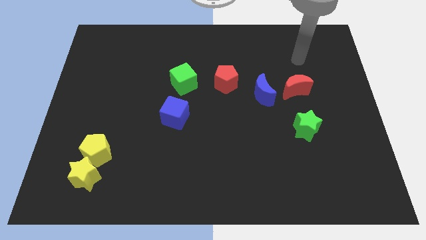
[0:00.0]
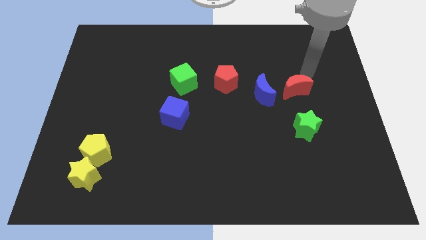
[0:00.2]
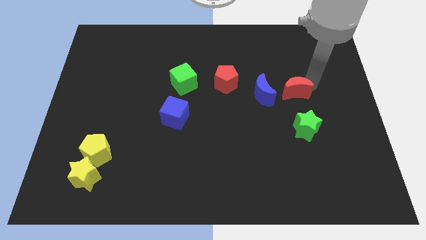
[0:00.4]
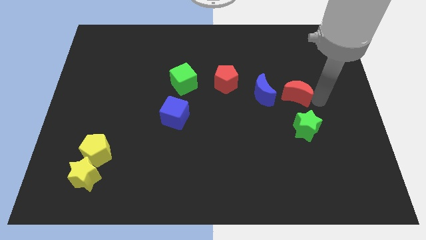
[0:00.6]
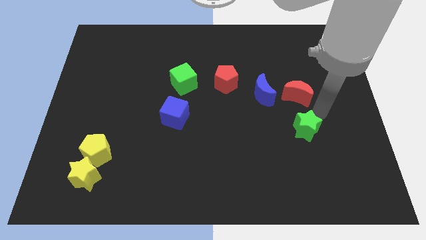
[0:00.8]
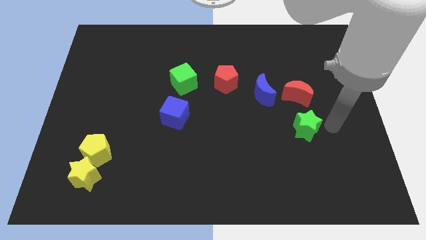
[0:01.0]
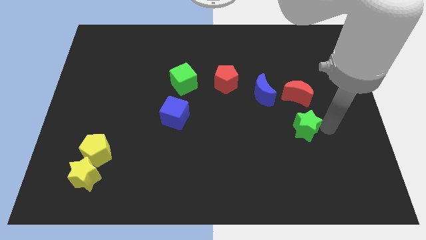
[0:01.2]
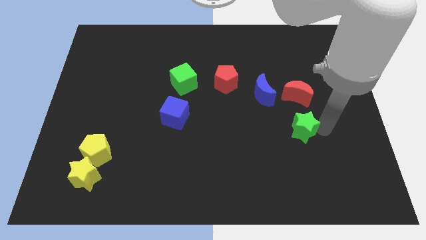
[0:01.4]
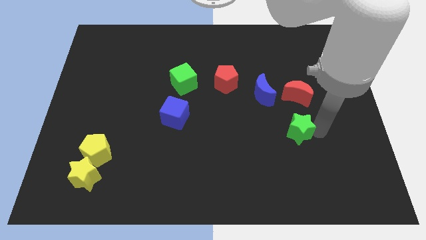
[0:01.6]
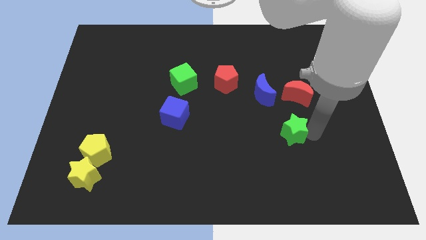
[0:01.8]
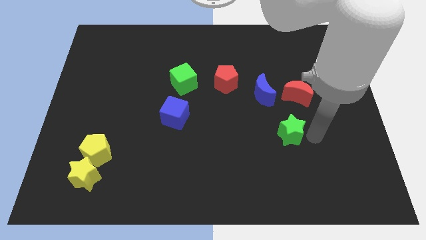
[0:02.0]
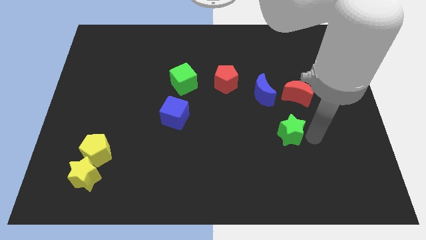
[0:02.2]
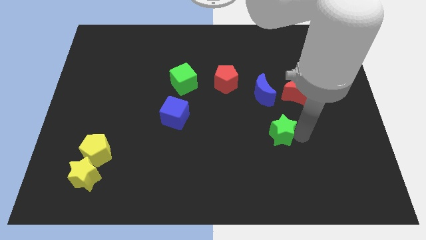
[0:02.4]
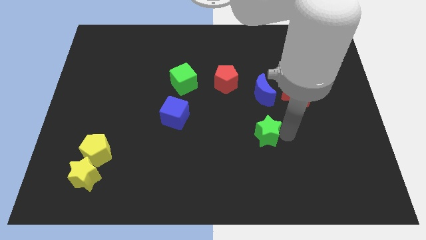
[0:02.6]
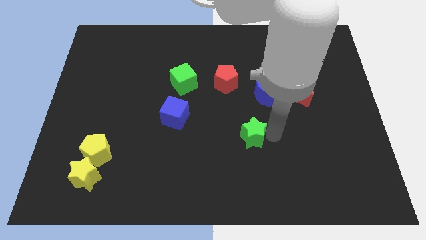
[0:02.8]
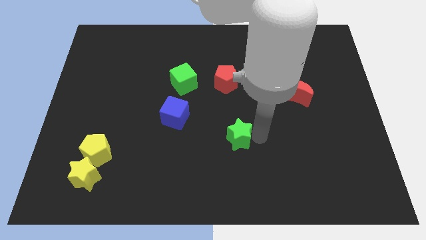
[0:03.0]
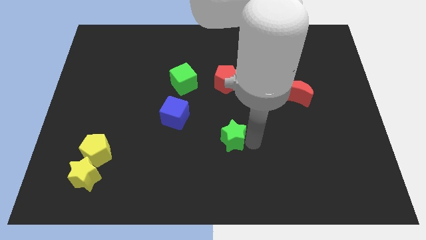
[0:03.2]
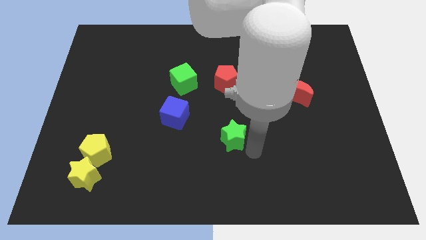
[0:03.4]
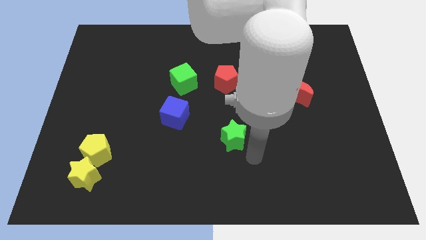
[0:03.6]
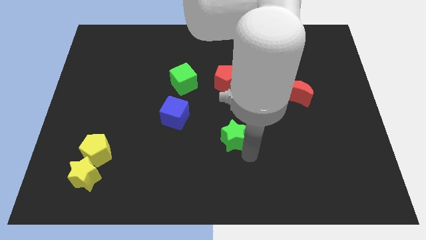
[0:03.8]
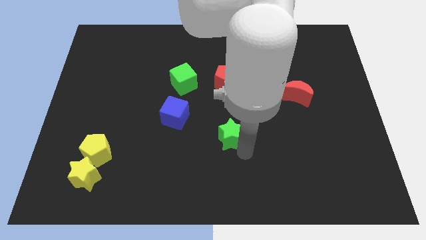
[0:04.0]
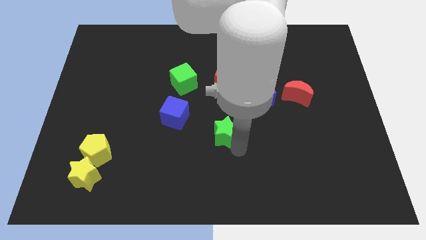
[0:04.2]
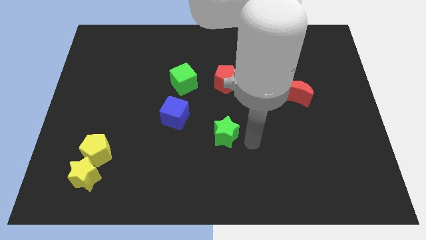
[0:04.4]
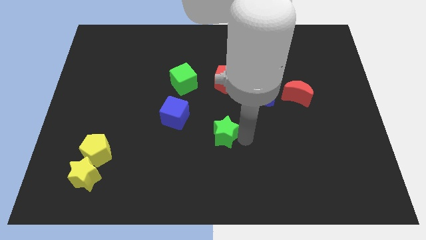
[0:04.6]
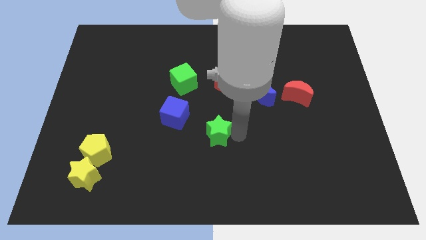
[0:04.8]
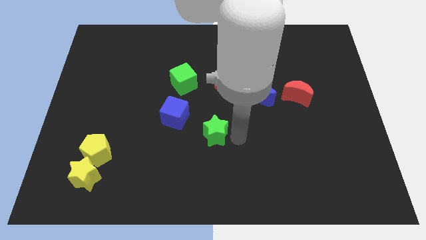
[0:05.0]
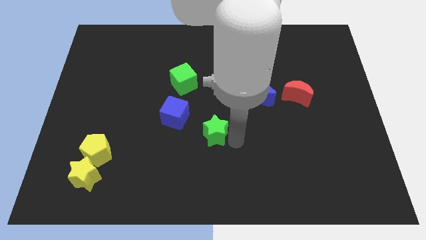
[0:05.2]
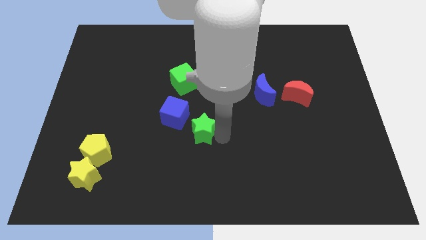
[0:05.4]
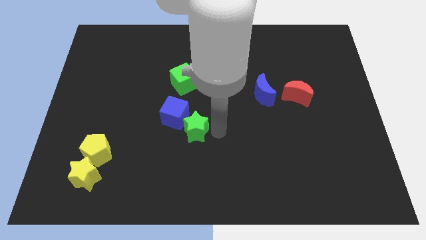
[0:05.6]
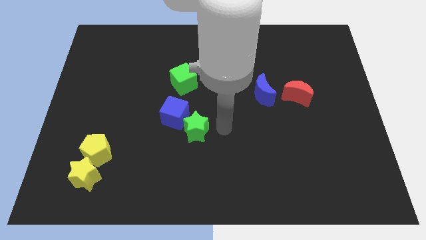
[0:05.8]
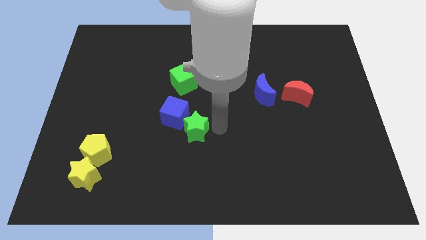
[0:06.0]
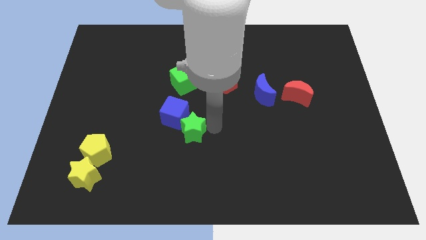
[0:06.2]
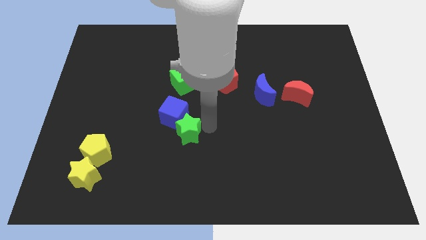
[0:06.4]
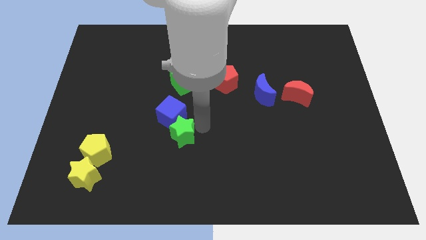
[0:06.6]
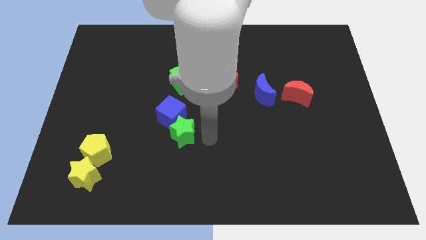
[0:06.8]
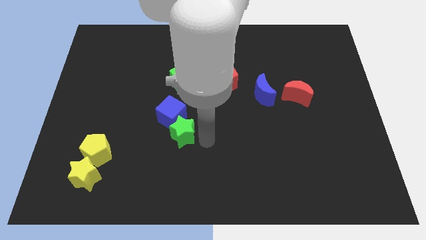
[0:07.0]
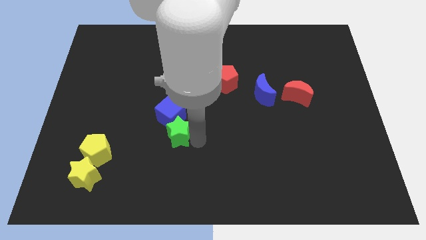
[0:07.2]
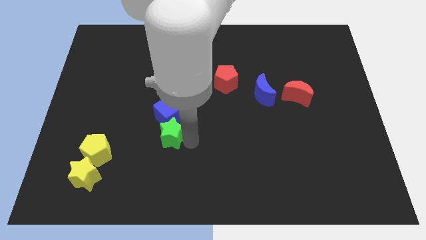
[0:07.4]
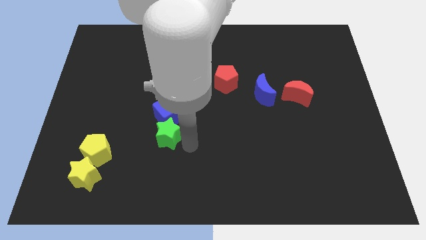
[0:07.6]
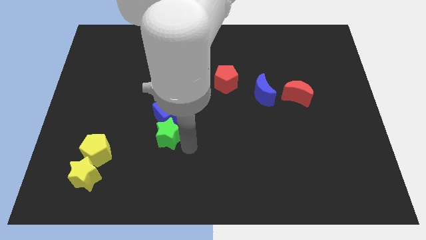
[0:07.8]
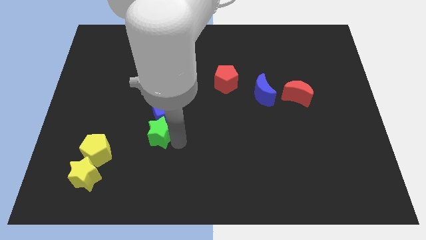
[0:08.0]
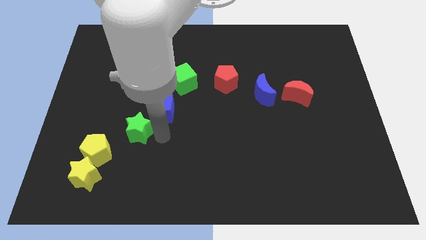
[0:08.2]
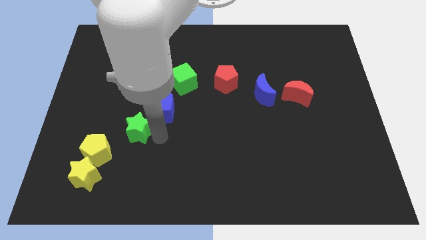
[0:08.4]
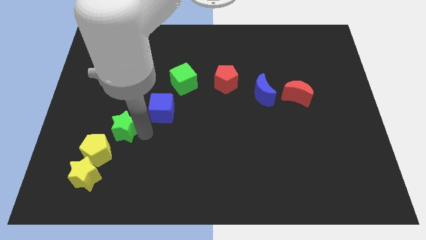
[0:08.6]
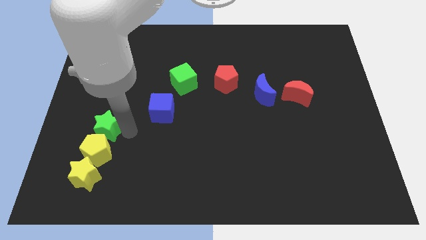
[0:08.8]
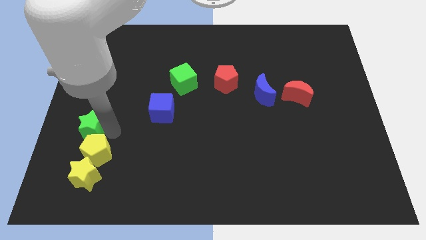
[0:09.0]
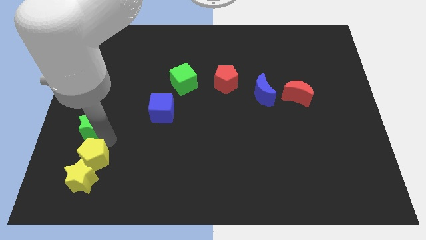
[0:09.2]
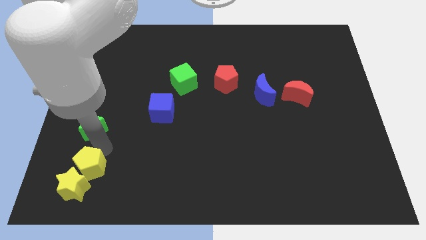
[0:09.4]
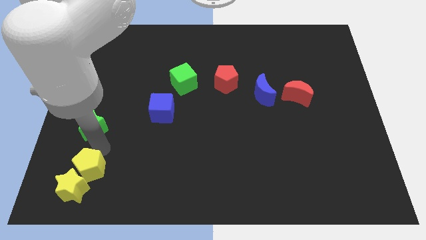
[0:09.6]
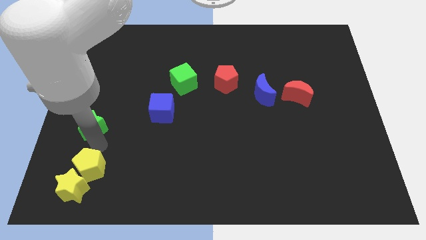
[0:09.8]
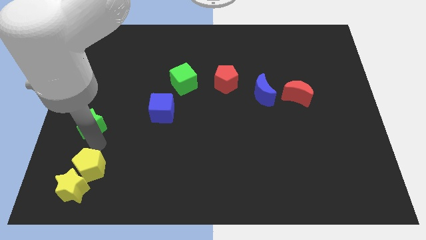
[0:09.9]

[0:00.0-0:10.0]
slide the green star to the left side
